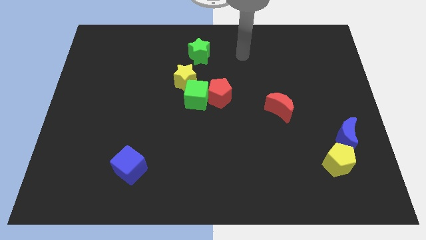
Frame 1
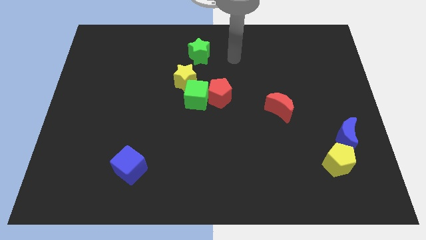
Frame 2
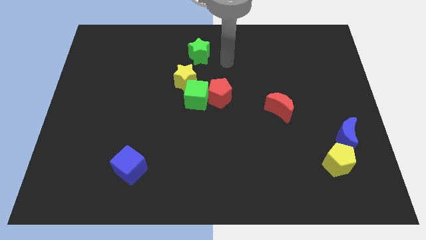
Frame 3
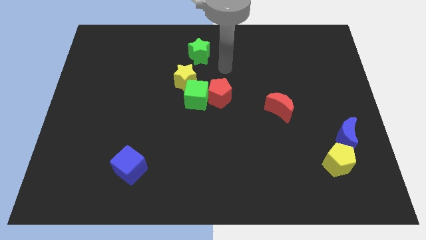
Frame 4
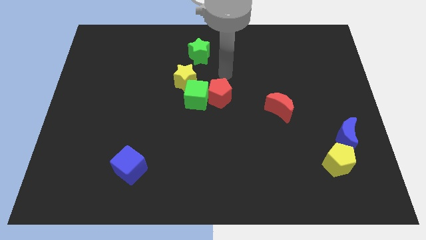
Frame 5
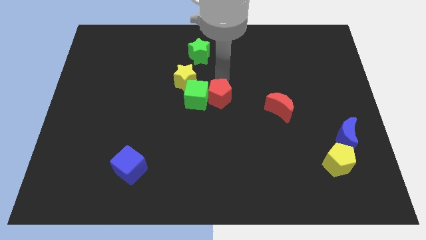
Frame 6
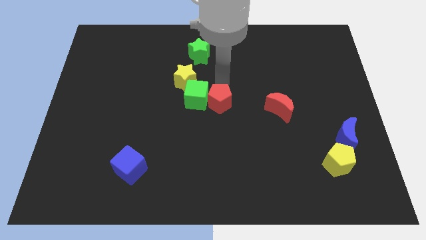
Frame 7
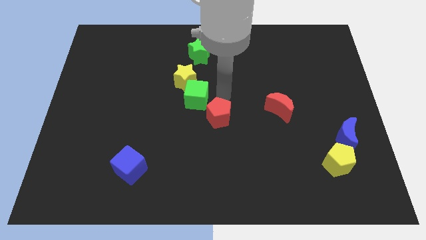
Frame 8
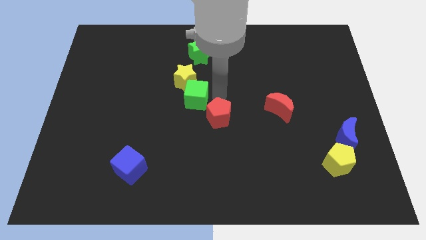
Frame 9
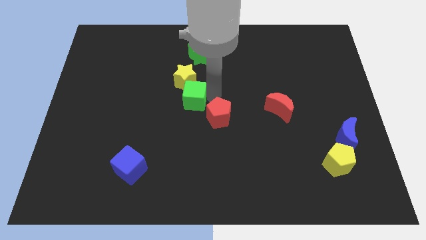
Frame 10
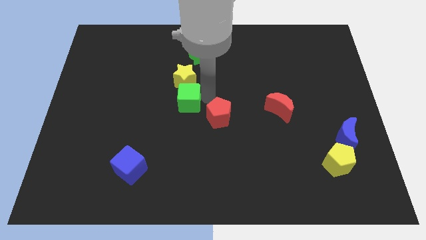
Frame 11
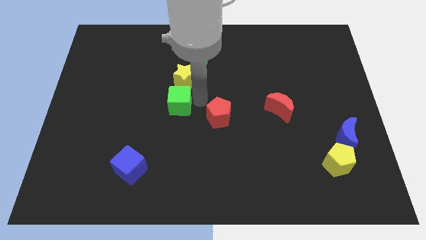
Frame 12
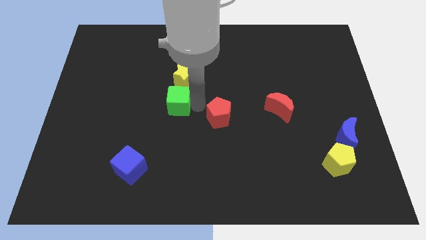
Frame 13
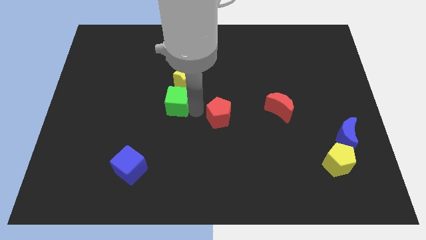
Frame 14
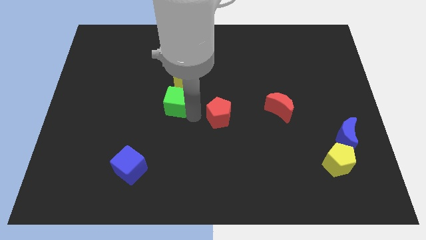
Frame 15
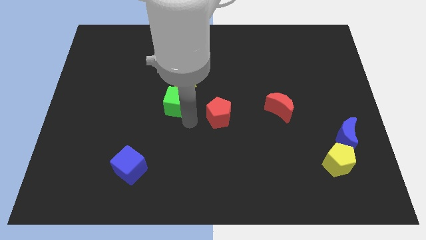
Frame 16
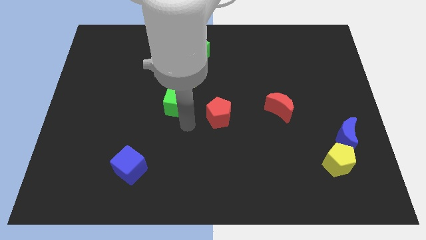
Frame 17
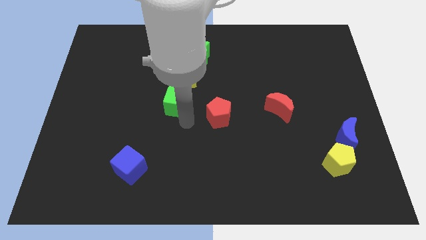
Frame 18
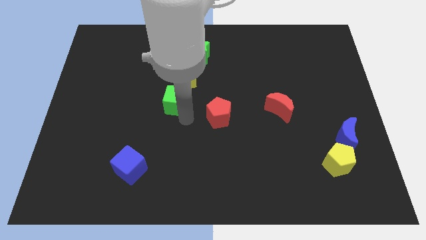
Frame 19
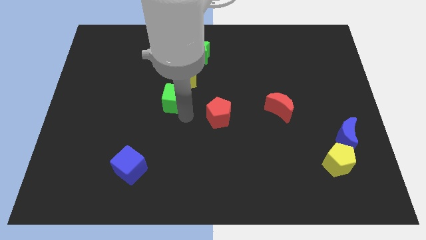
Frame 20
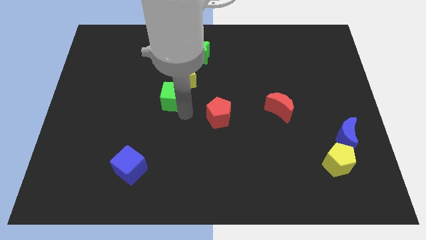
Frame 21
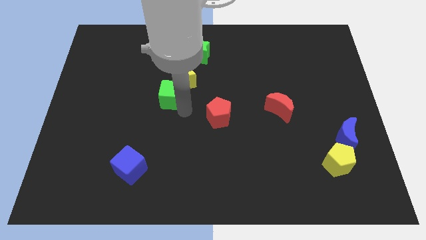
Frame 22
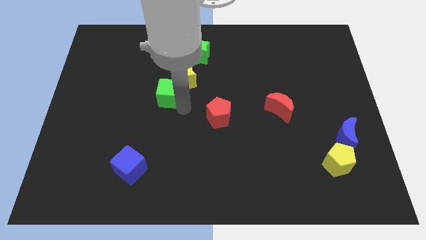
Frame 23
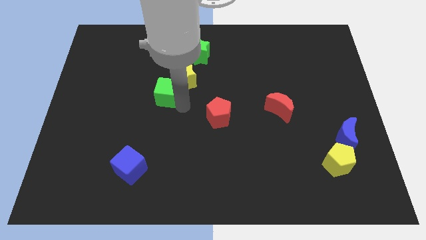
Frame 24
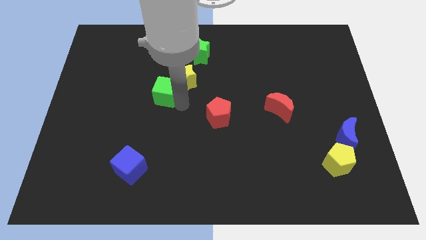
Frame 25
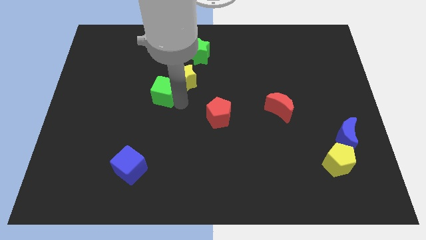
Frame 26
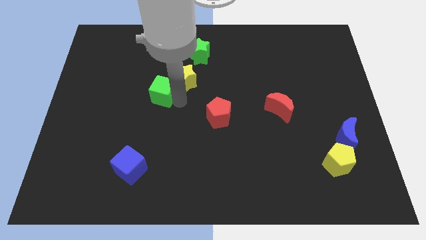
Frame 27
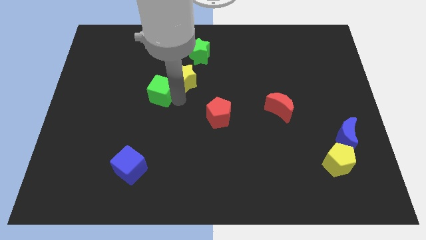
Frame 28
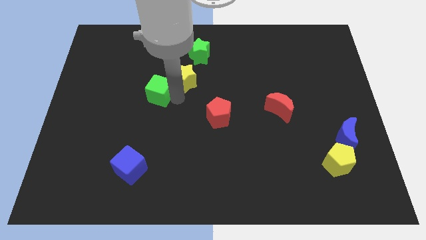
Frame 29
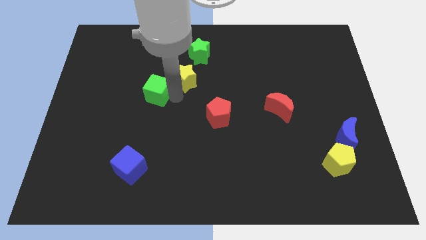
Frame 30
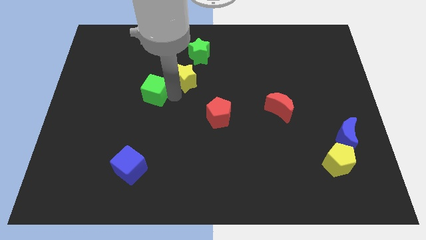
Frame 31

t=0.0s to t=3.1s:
slide the green cube slightly diagonally upwards and left

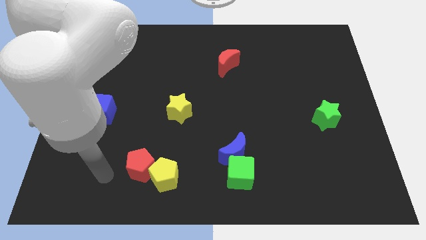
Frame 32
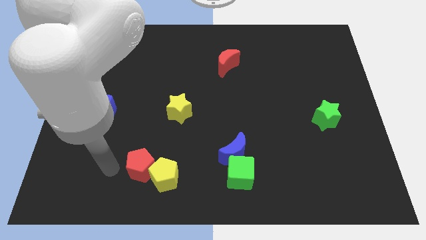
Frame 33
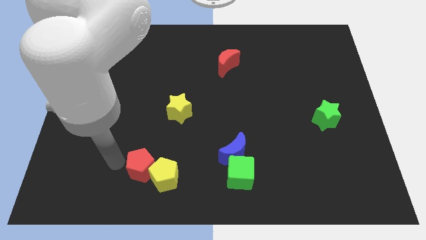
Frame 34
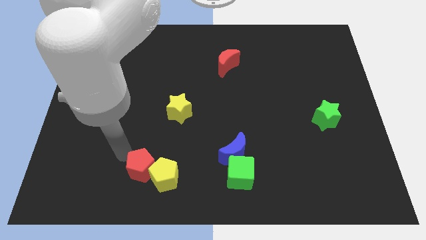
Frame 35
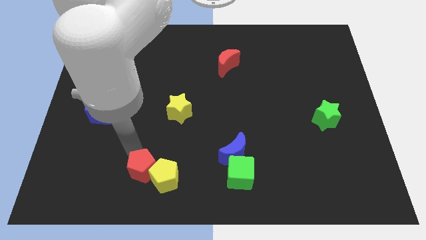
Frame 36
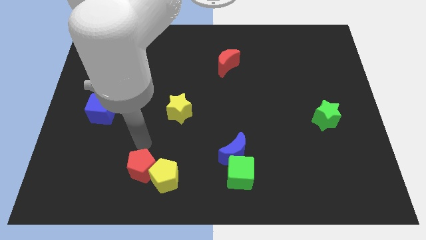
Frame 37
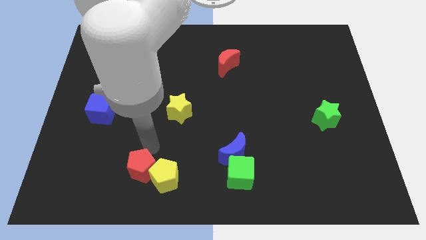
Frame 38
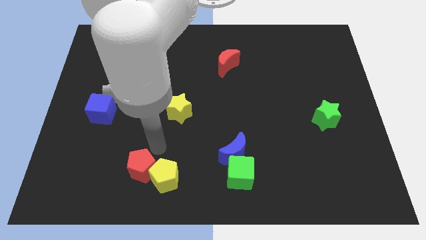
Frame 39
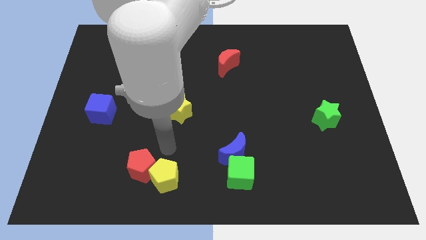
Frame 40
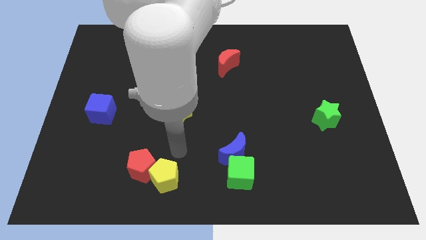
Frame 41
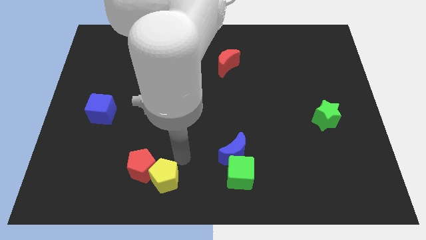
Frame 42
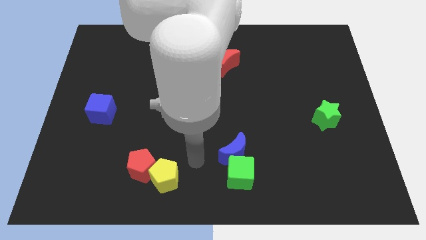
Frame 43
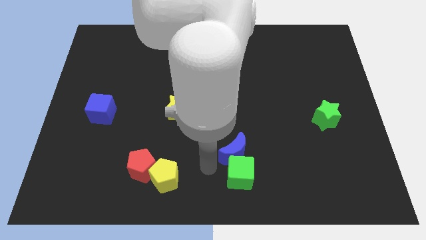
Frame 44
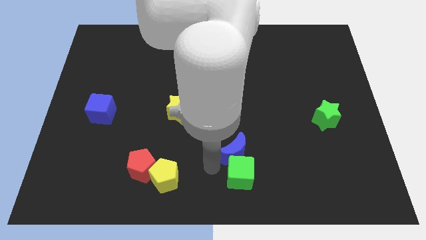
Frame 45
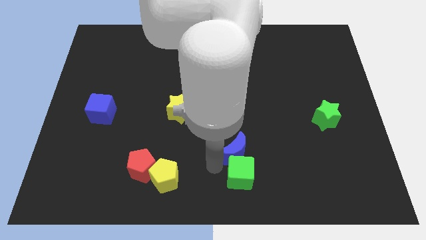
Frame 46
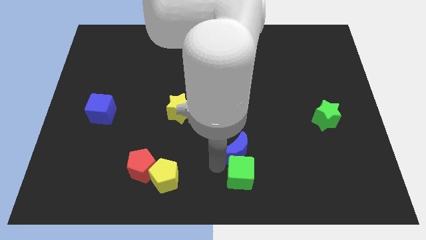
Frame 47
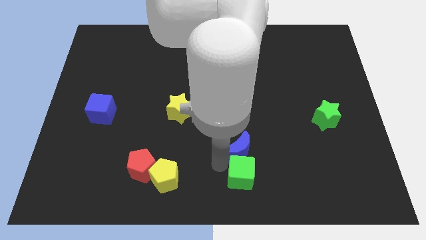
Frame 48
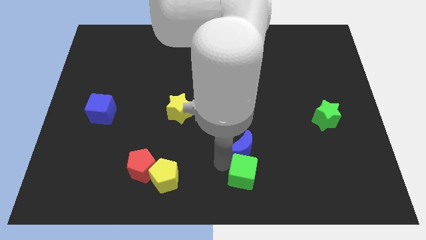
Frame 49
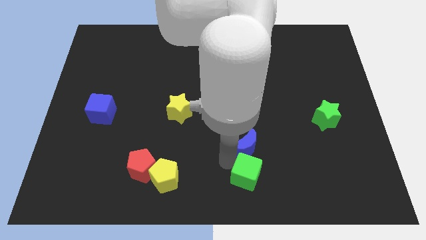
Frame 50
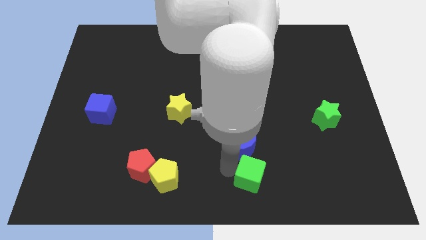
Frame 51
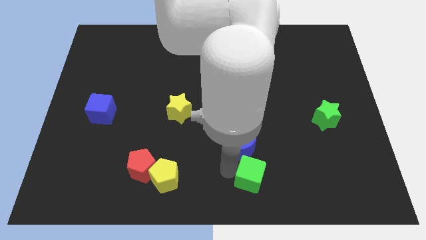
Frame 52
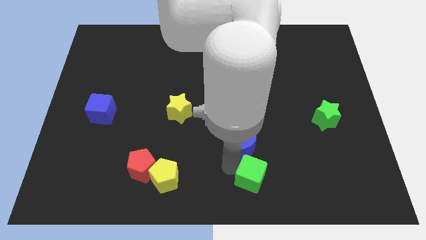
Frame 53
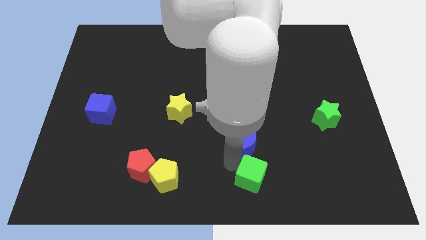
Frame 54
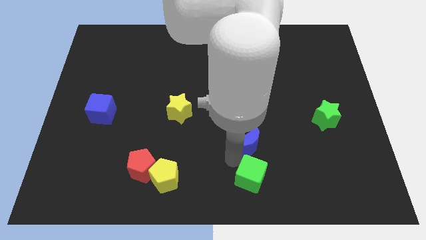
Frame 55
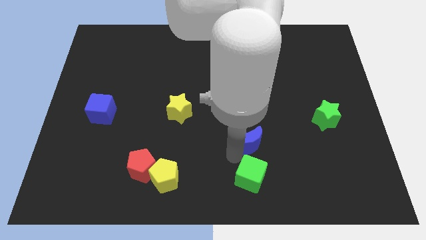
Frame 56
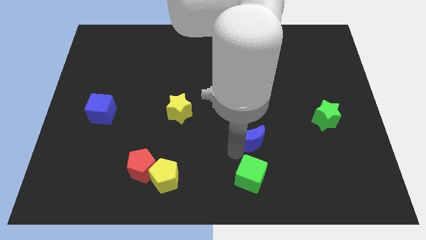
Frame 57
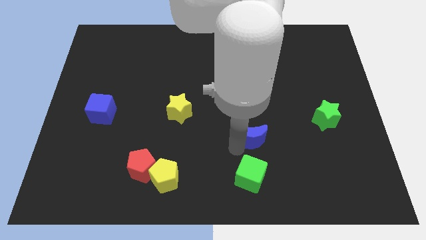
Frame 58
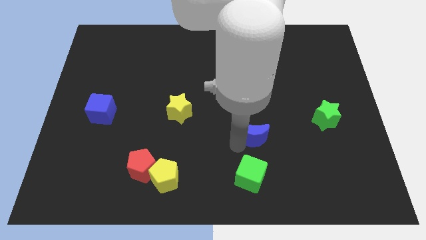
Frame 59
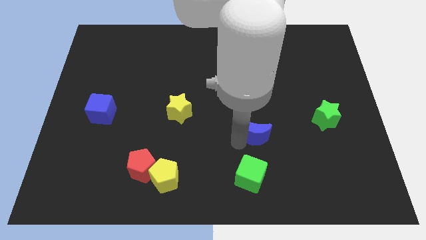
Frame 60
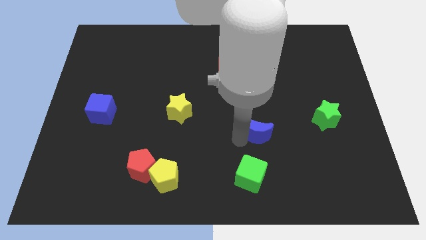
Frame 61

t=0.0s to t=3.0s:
push the blue moon a little up and to the right

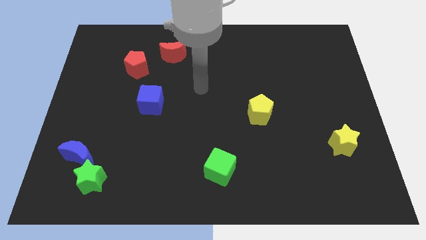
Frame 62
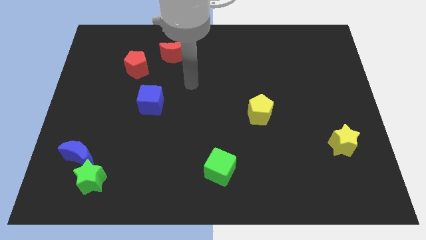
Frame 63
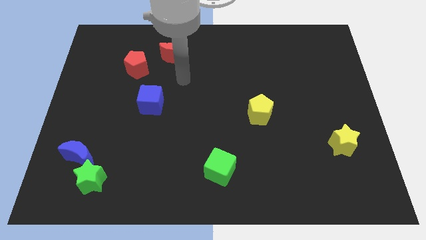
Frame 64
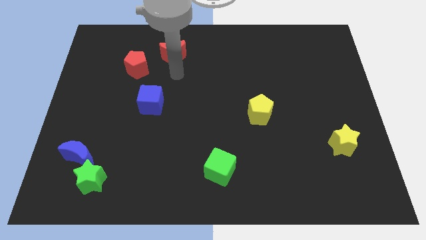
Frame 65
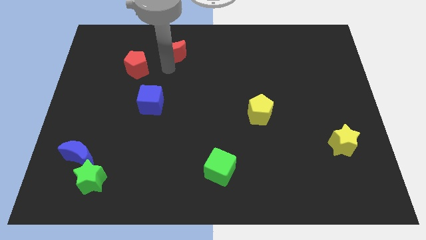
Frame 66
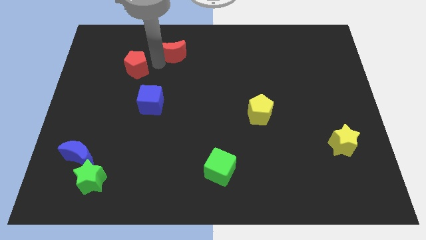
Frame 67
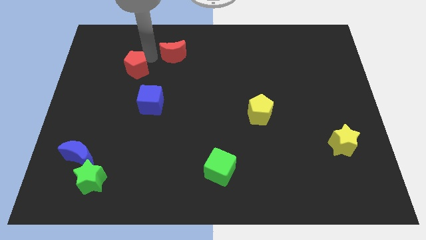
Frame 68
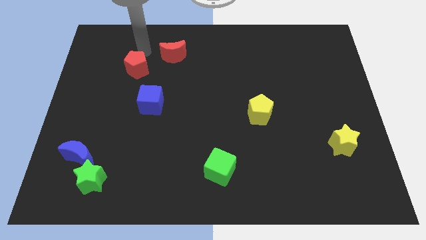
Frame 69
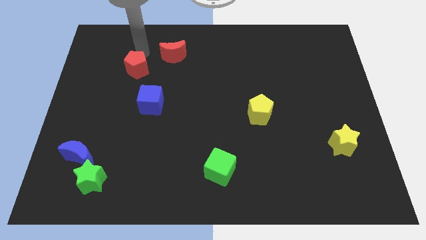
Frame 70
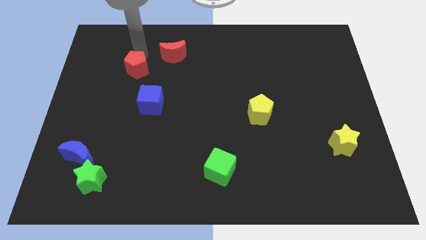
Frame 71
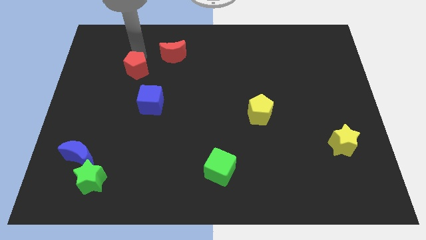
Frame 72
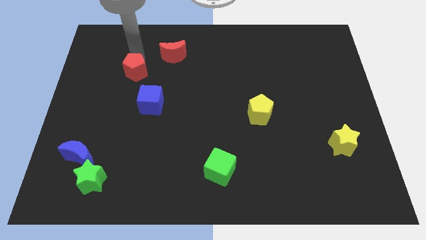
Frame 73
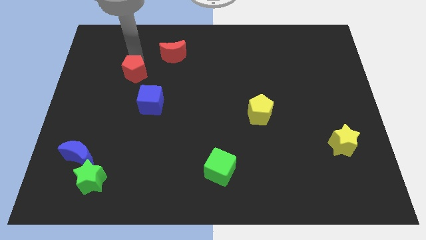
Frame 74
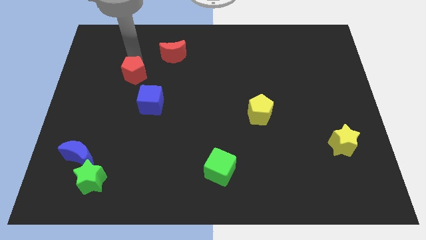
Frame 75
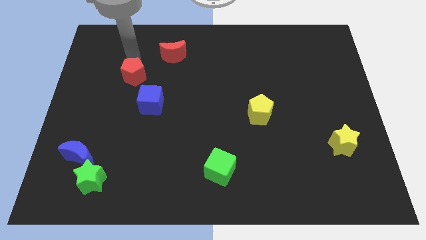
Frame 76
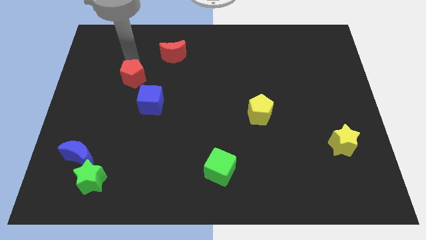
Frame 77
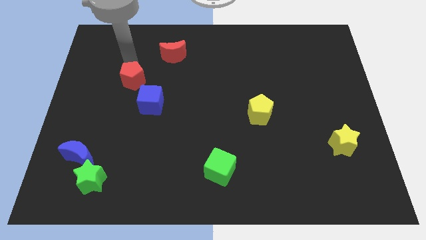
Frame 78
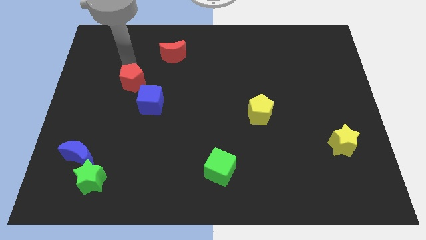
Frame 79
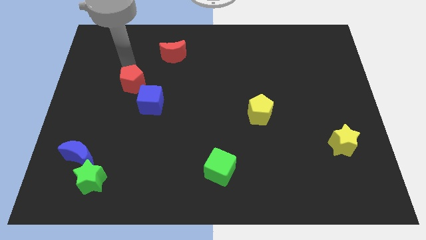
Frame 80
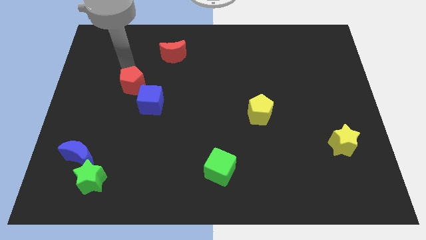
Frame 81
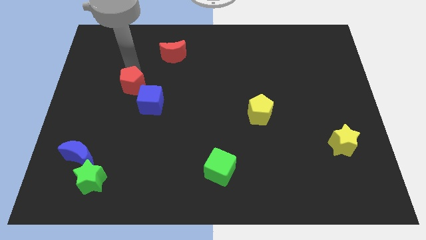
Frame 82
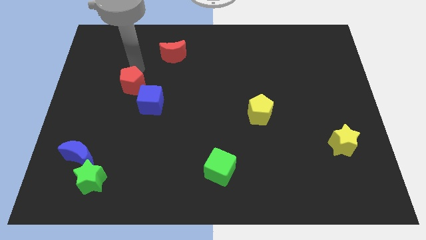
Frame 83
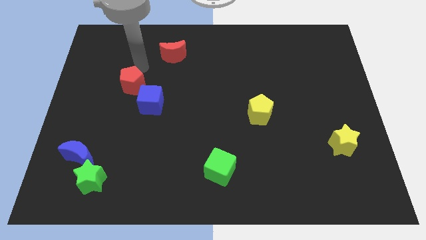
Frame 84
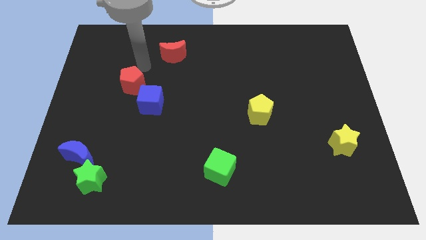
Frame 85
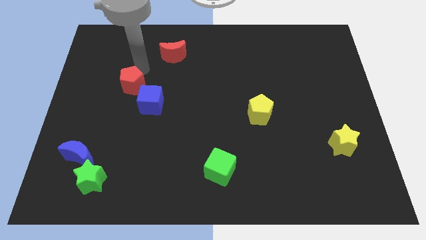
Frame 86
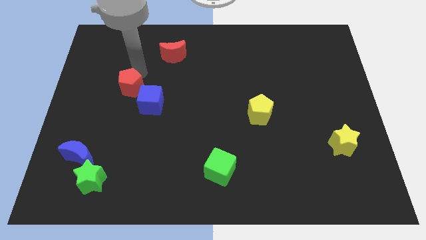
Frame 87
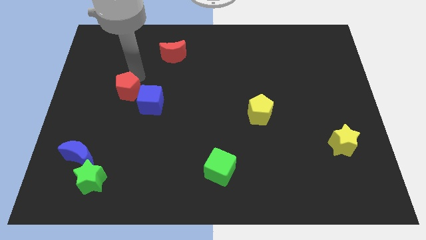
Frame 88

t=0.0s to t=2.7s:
slightly move the red pentagon downwards
